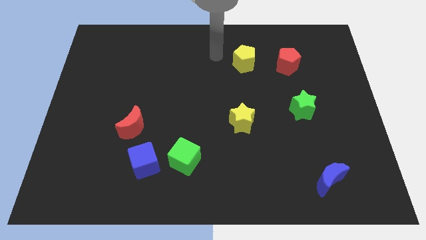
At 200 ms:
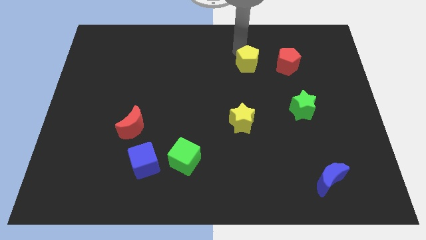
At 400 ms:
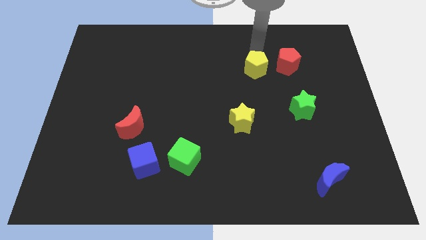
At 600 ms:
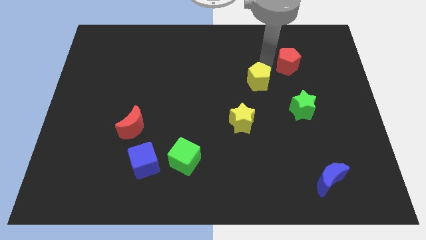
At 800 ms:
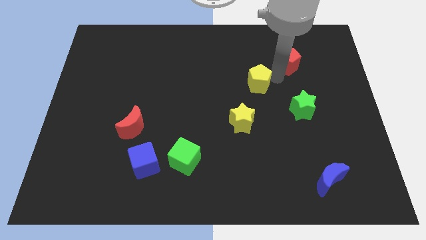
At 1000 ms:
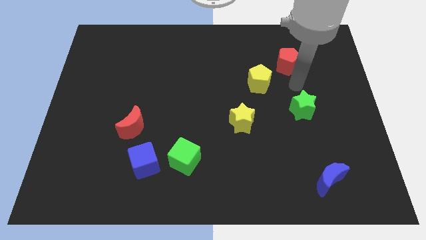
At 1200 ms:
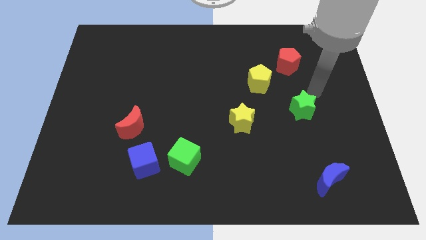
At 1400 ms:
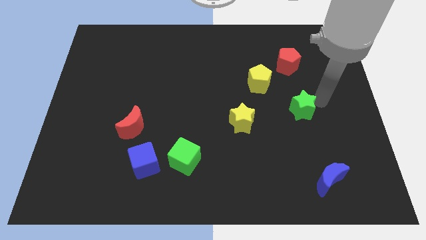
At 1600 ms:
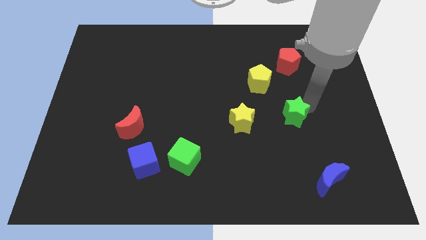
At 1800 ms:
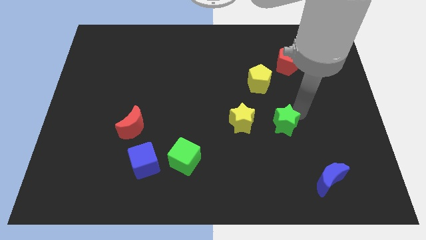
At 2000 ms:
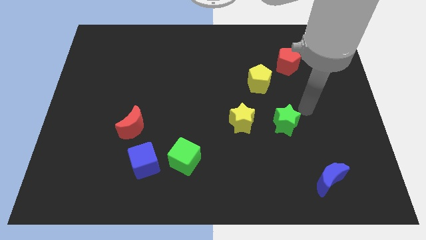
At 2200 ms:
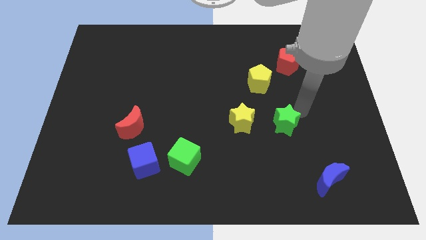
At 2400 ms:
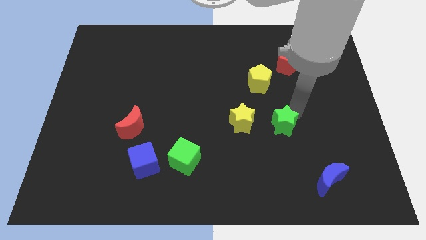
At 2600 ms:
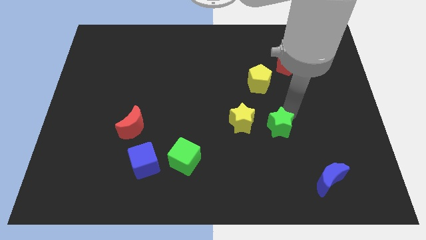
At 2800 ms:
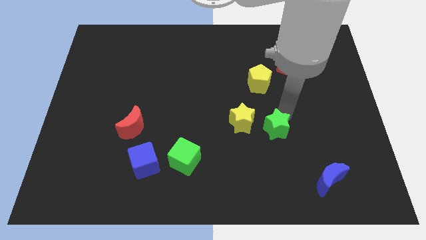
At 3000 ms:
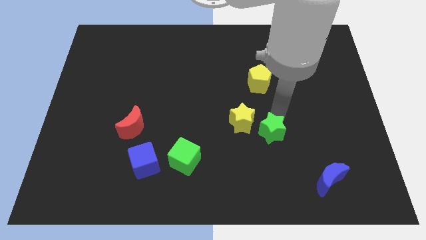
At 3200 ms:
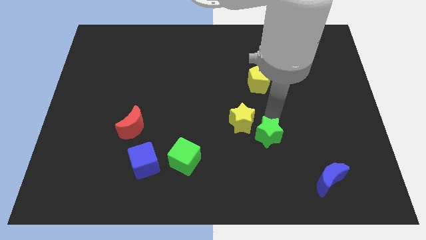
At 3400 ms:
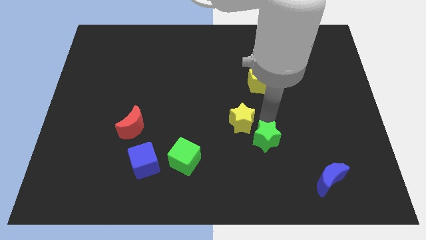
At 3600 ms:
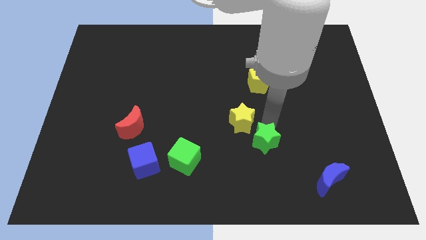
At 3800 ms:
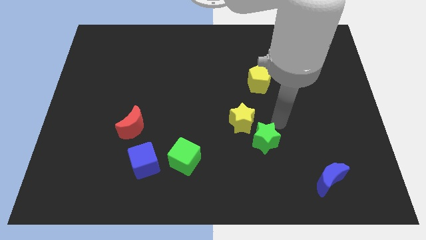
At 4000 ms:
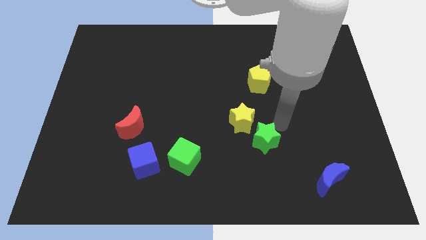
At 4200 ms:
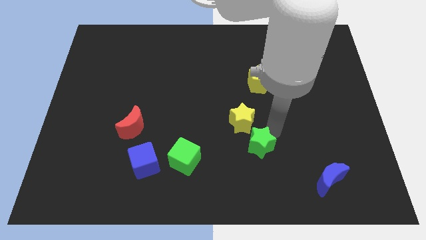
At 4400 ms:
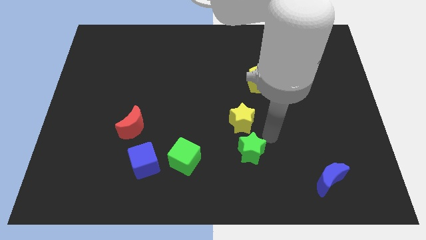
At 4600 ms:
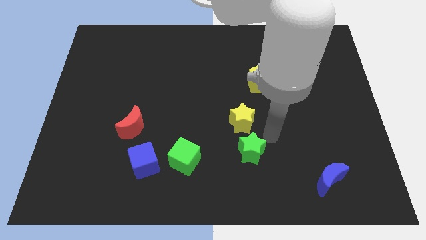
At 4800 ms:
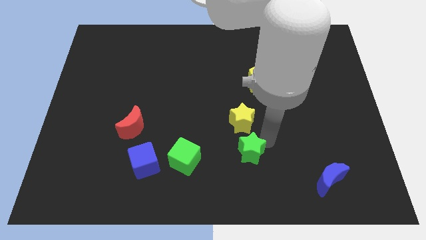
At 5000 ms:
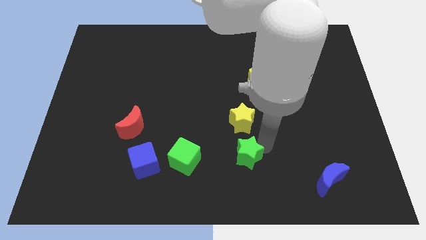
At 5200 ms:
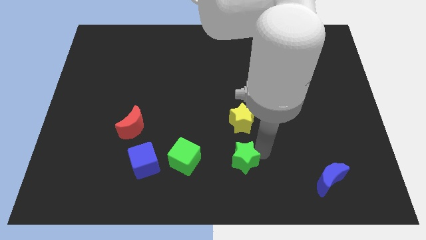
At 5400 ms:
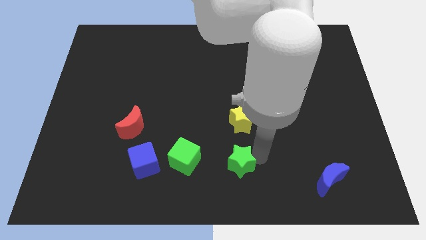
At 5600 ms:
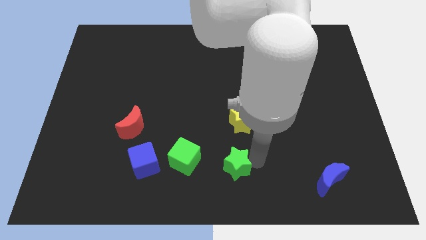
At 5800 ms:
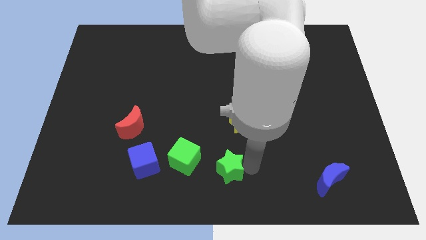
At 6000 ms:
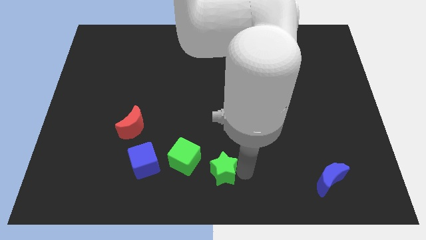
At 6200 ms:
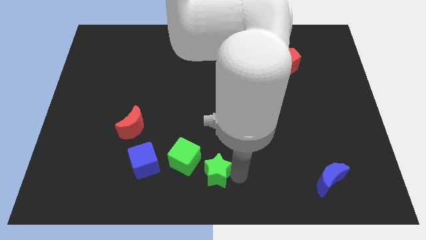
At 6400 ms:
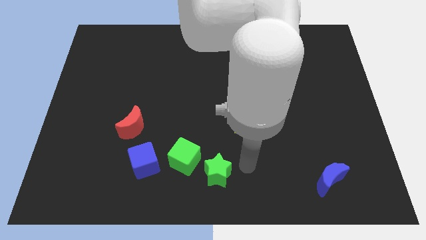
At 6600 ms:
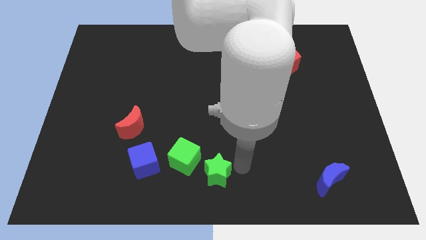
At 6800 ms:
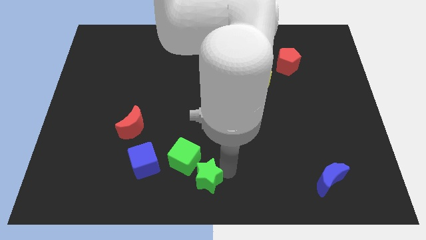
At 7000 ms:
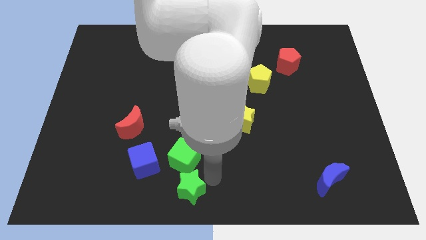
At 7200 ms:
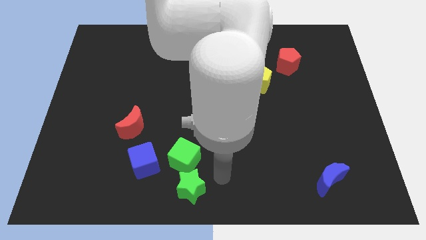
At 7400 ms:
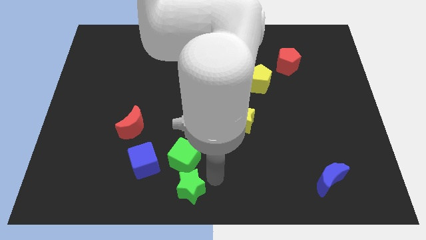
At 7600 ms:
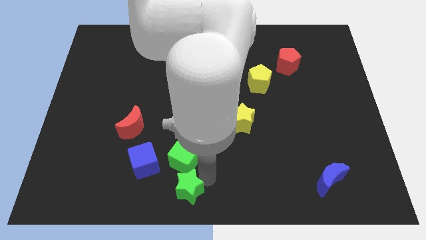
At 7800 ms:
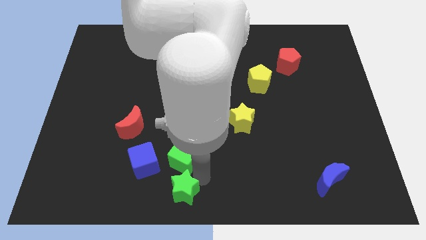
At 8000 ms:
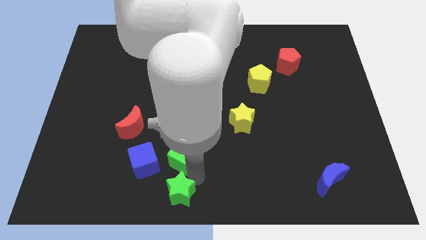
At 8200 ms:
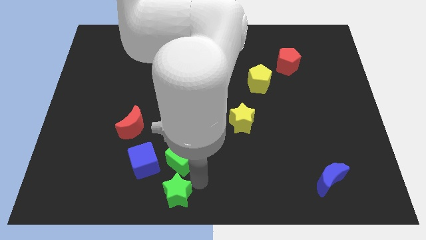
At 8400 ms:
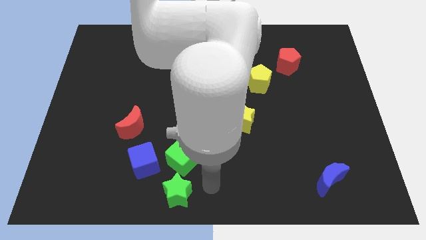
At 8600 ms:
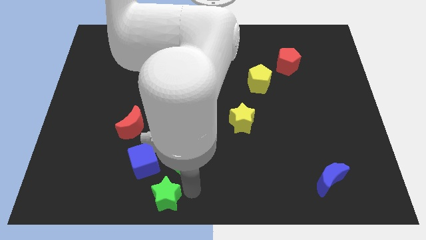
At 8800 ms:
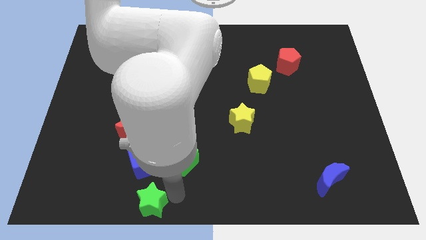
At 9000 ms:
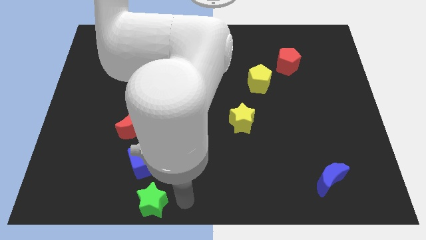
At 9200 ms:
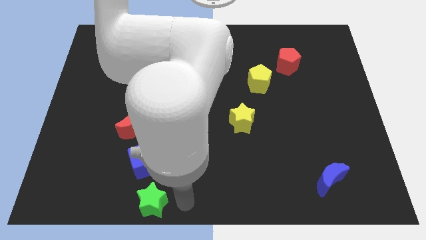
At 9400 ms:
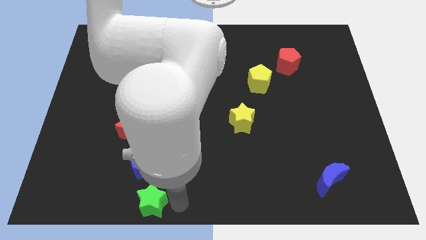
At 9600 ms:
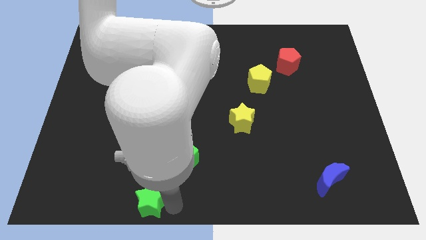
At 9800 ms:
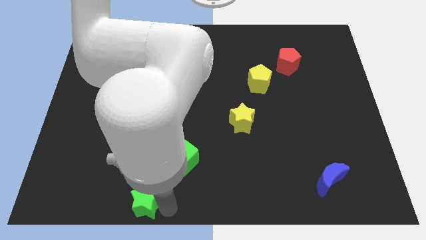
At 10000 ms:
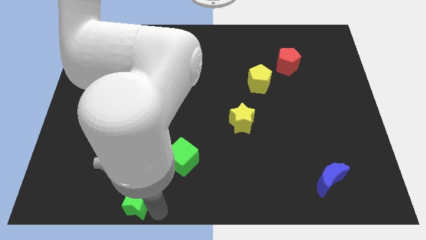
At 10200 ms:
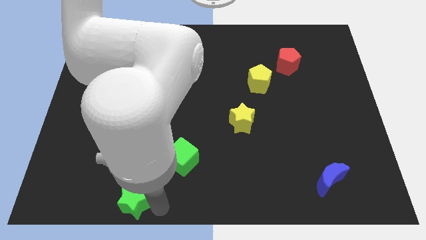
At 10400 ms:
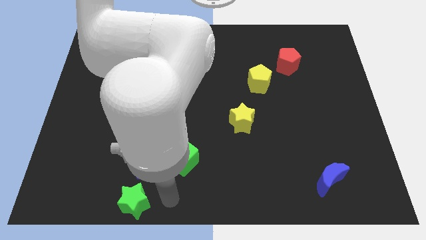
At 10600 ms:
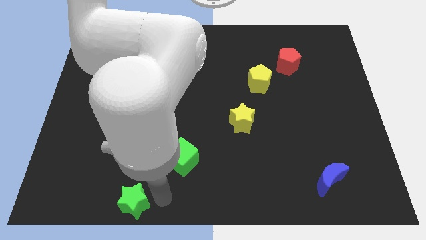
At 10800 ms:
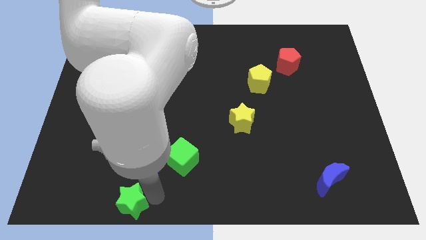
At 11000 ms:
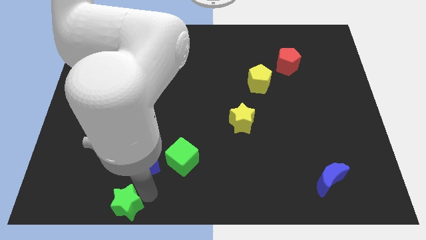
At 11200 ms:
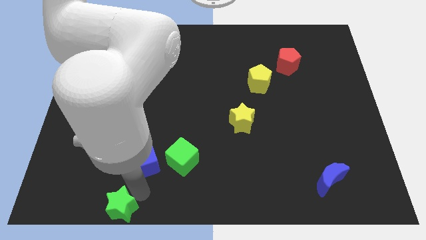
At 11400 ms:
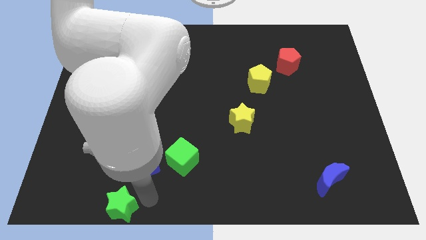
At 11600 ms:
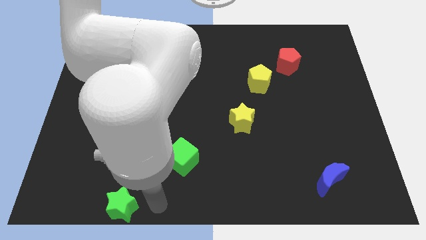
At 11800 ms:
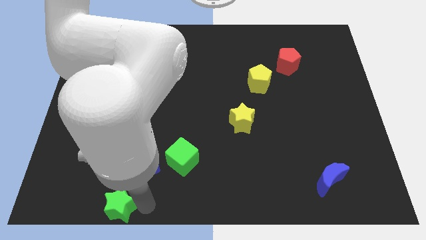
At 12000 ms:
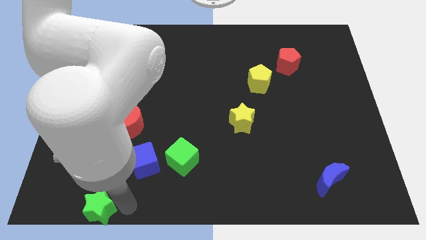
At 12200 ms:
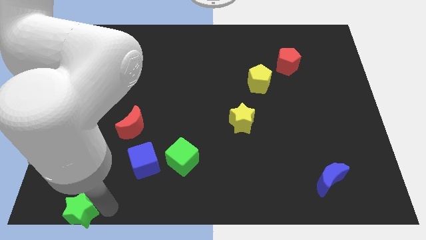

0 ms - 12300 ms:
push the green star to the bottom left of the board
